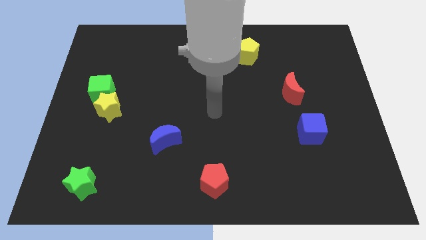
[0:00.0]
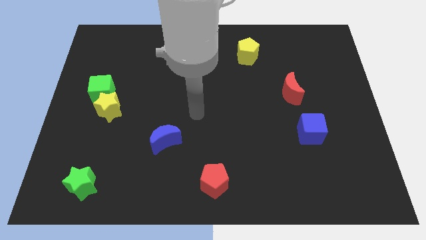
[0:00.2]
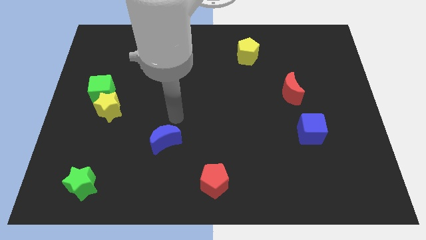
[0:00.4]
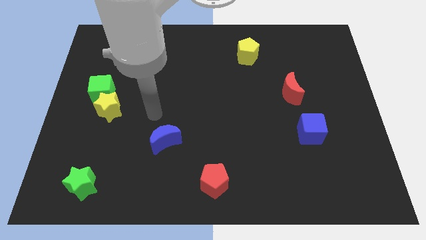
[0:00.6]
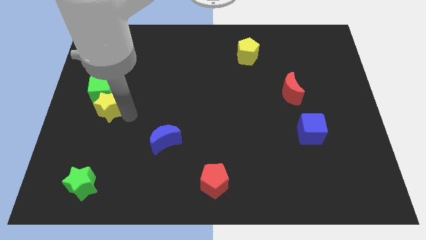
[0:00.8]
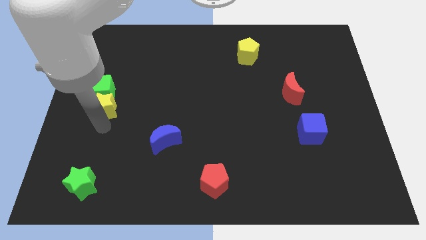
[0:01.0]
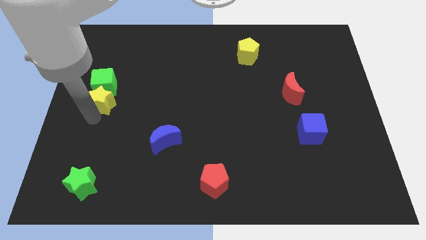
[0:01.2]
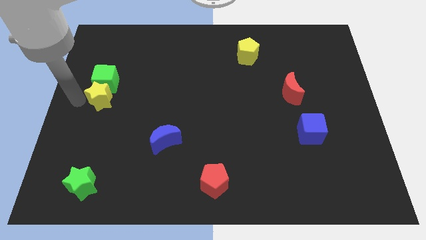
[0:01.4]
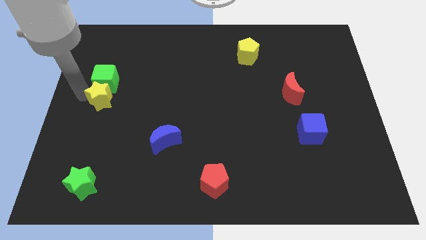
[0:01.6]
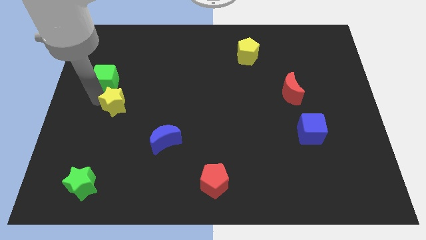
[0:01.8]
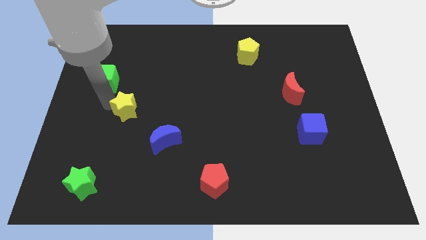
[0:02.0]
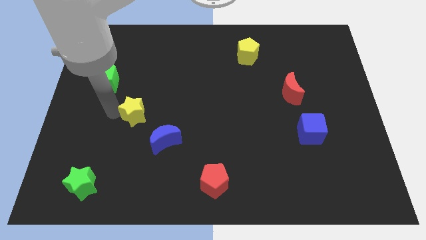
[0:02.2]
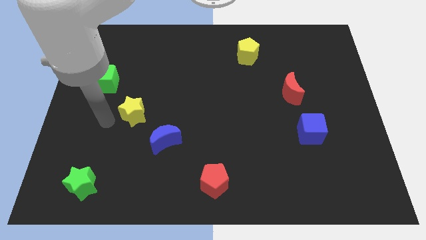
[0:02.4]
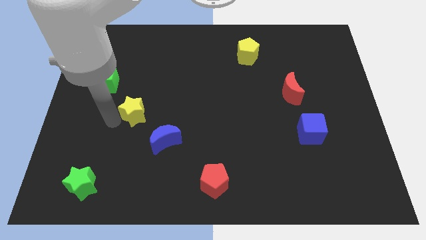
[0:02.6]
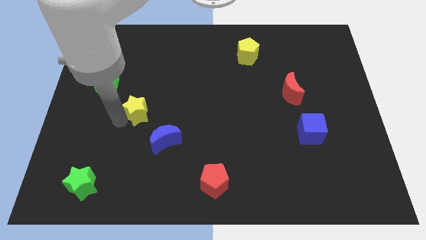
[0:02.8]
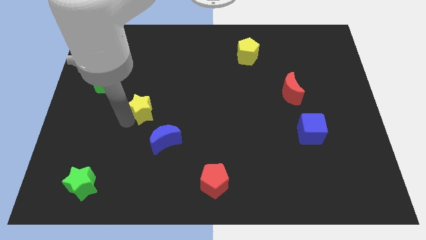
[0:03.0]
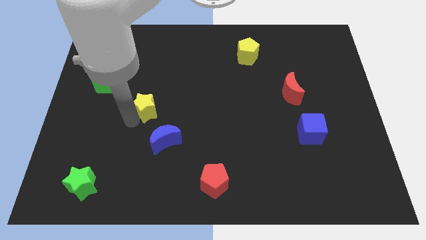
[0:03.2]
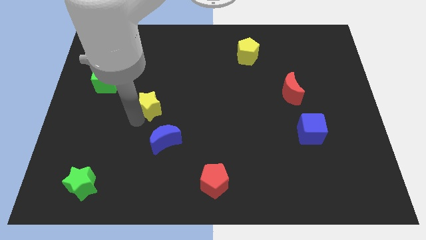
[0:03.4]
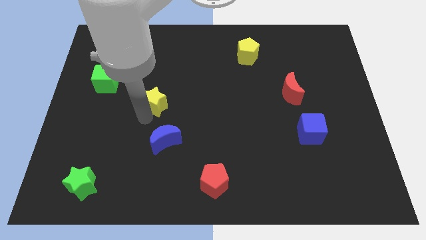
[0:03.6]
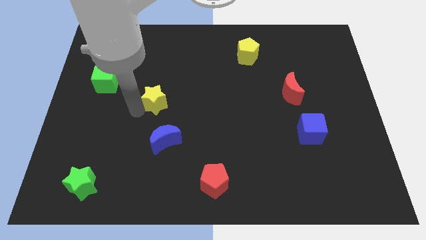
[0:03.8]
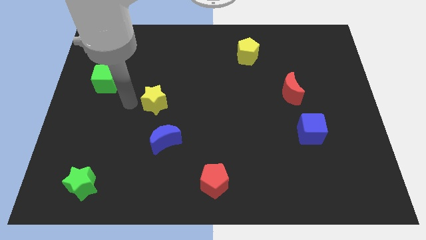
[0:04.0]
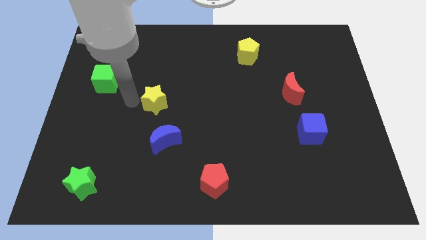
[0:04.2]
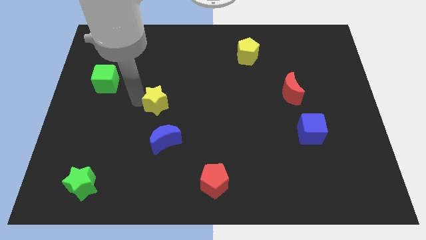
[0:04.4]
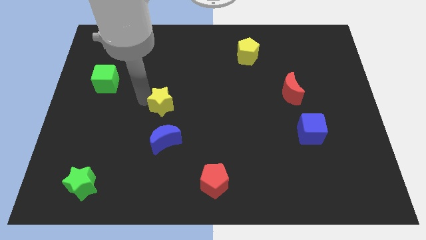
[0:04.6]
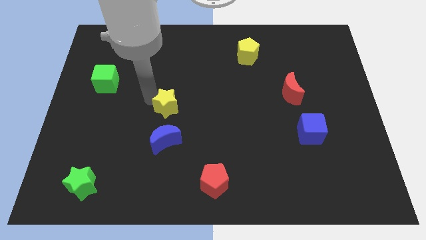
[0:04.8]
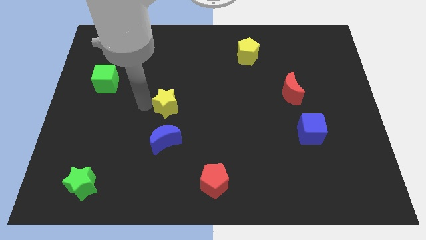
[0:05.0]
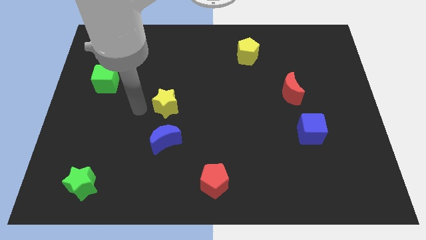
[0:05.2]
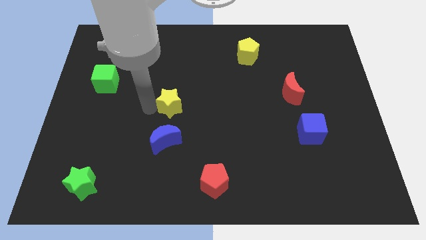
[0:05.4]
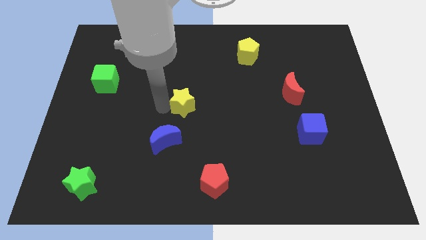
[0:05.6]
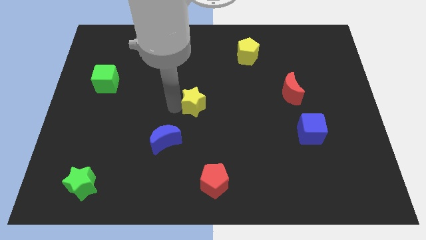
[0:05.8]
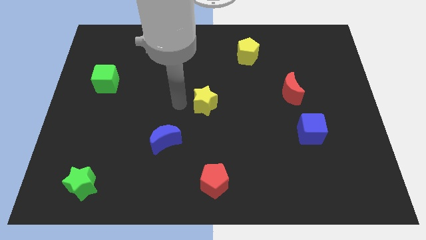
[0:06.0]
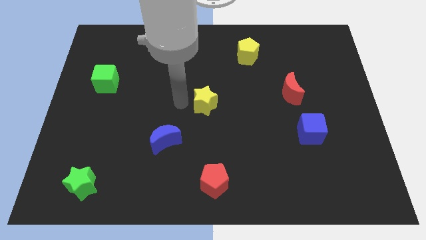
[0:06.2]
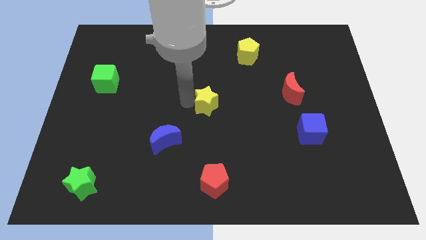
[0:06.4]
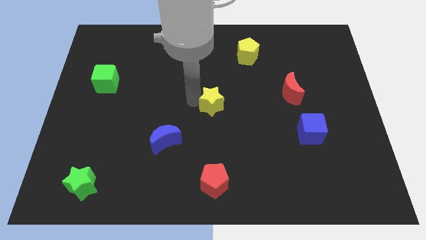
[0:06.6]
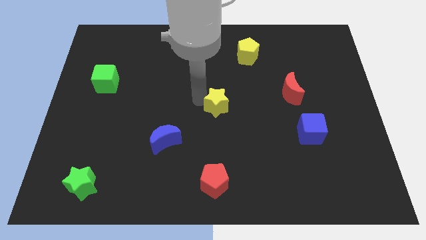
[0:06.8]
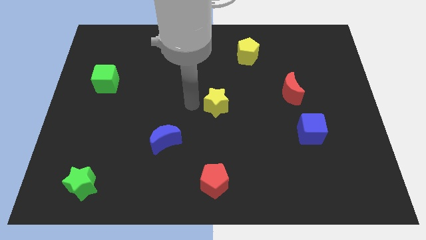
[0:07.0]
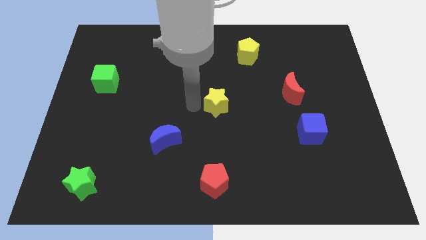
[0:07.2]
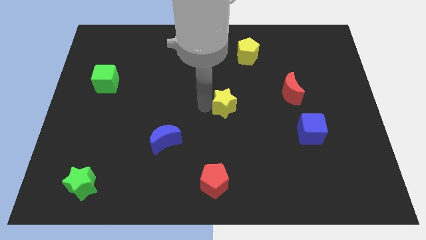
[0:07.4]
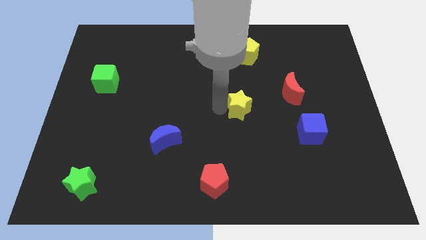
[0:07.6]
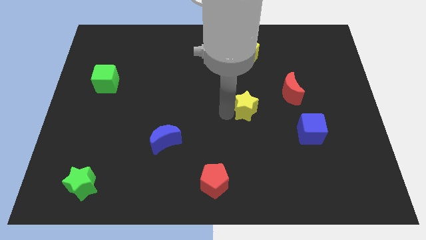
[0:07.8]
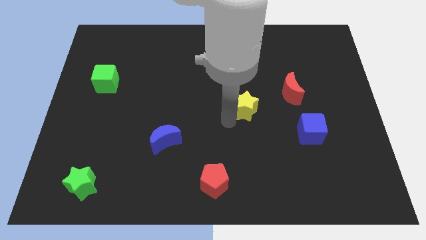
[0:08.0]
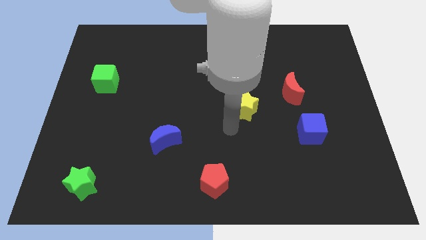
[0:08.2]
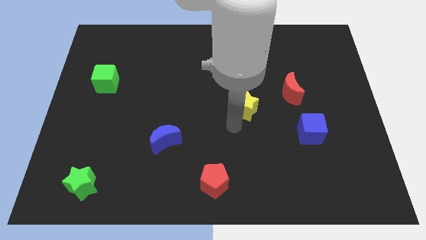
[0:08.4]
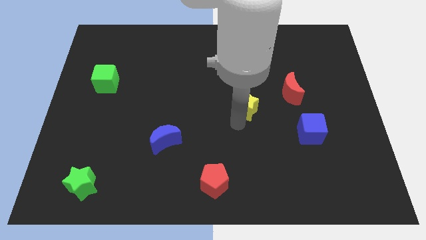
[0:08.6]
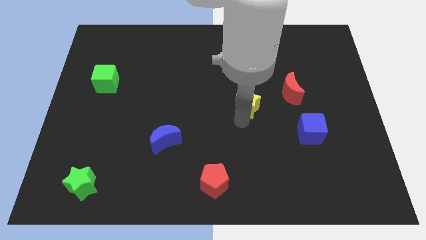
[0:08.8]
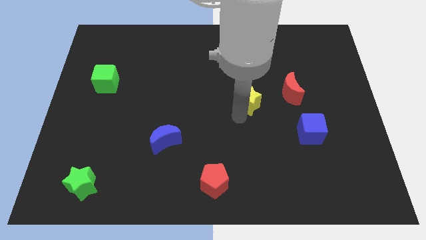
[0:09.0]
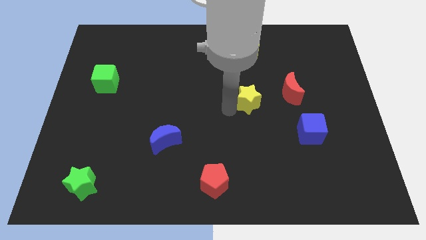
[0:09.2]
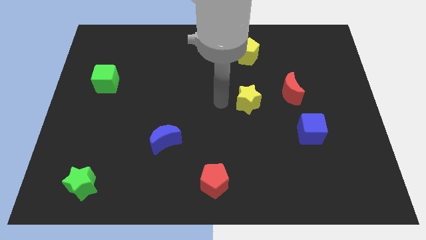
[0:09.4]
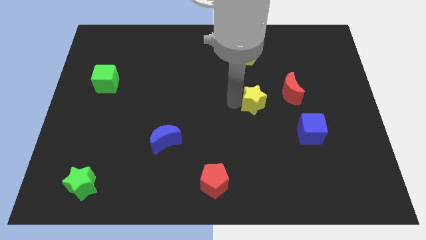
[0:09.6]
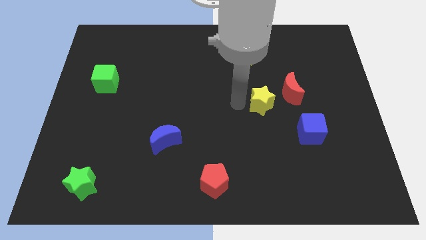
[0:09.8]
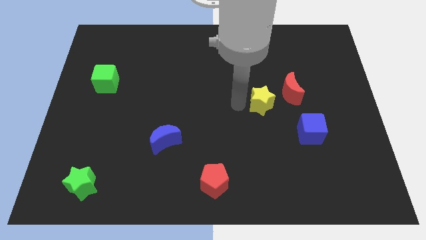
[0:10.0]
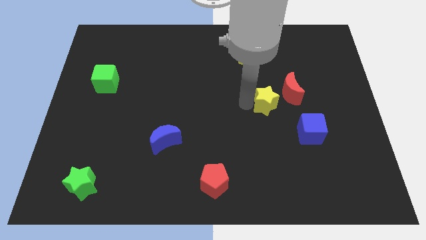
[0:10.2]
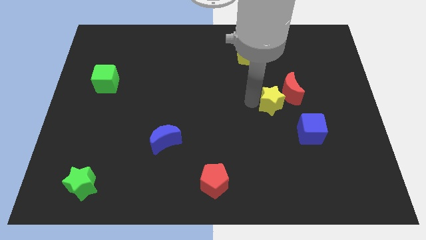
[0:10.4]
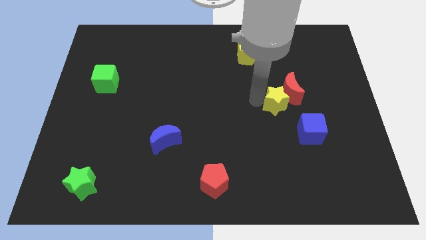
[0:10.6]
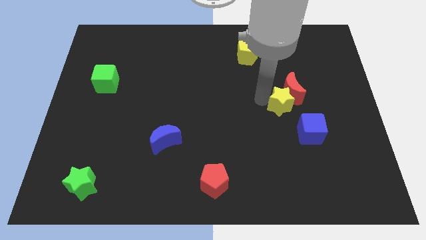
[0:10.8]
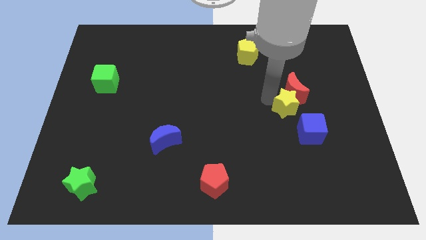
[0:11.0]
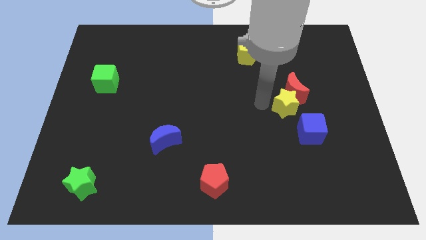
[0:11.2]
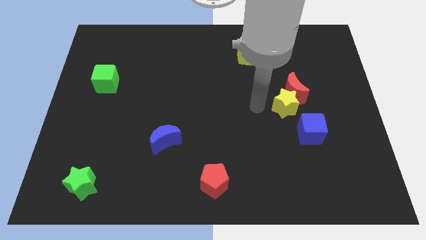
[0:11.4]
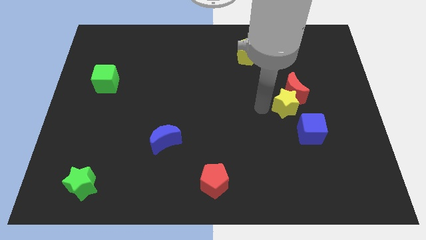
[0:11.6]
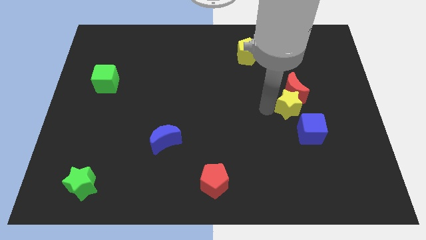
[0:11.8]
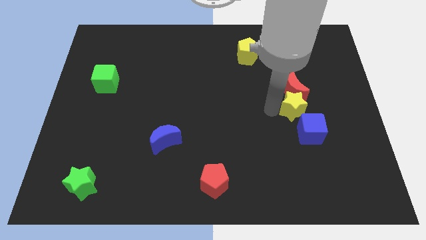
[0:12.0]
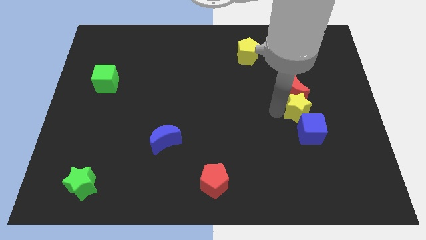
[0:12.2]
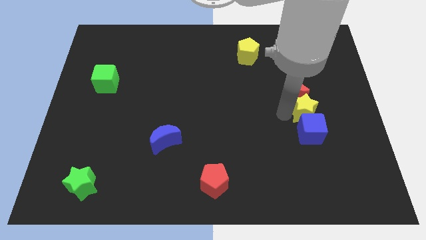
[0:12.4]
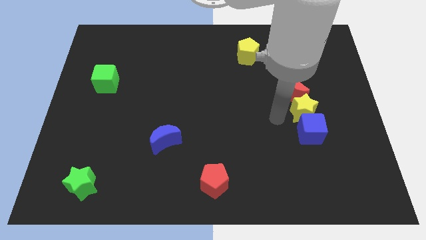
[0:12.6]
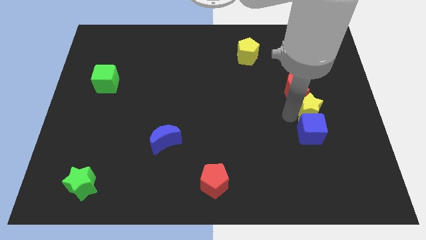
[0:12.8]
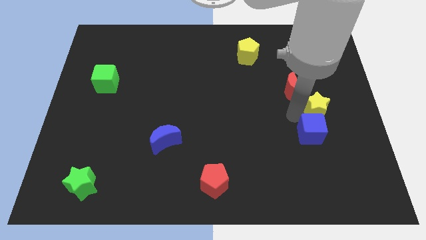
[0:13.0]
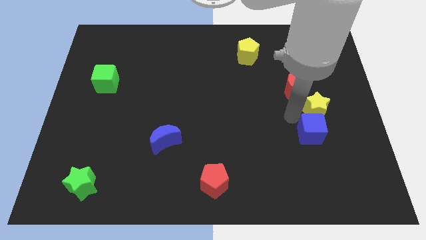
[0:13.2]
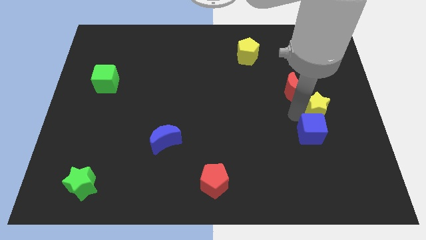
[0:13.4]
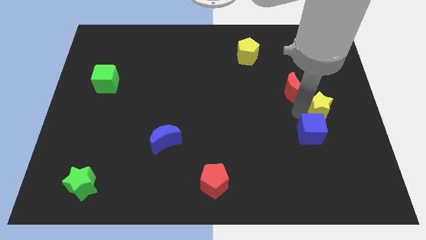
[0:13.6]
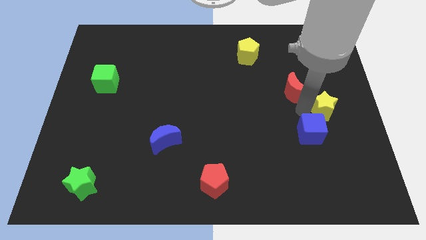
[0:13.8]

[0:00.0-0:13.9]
slide the yellow star to the right side of the board
